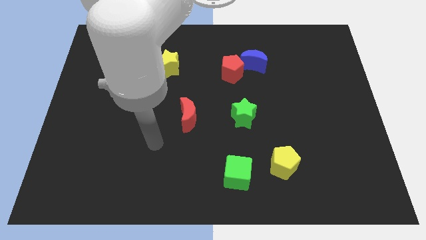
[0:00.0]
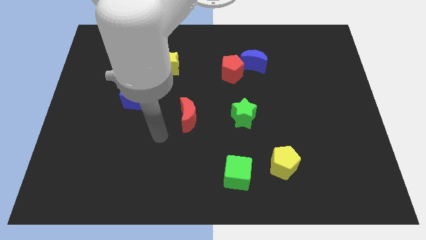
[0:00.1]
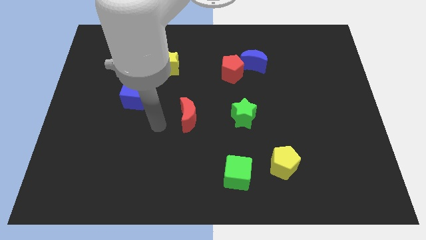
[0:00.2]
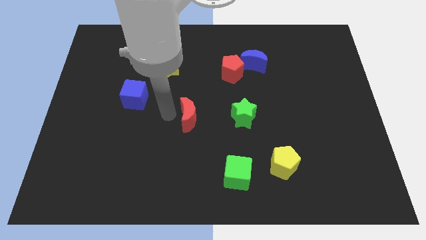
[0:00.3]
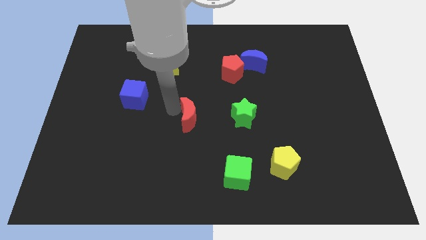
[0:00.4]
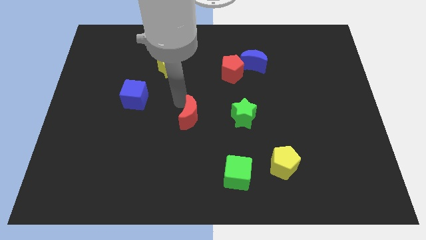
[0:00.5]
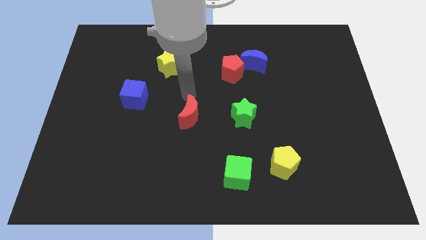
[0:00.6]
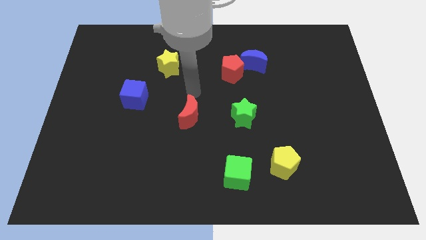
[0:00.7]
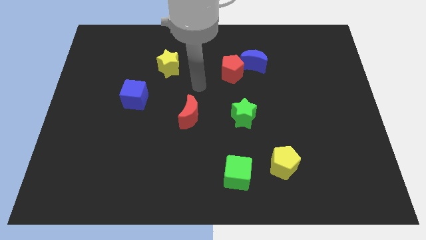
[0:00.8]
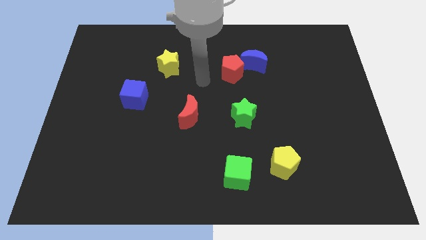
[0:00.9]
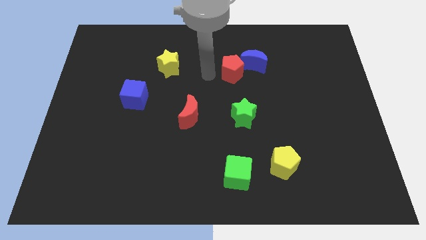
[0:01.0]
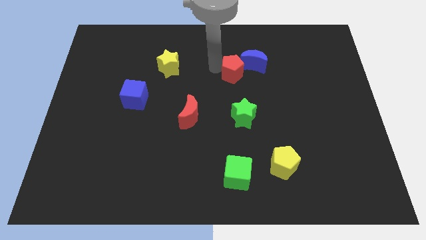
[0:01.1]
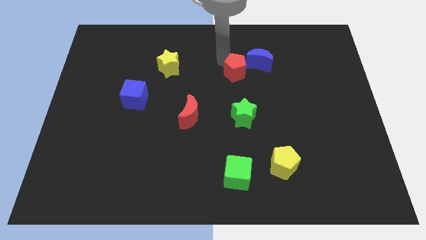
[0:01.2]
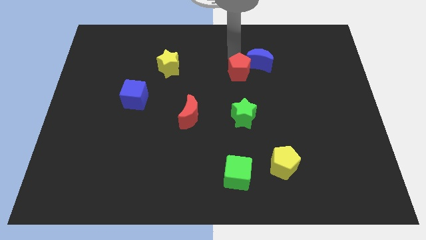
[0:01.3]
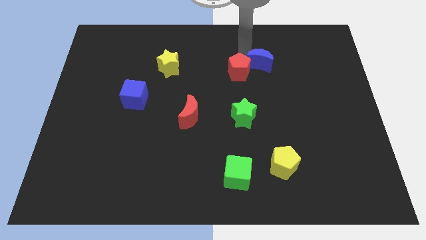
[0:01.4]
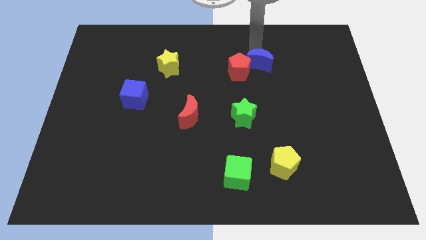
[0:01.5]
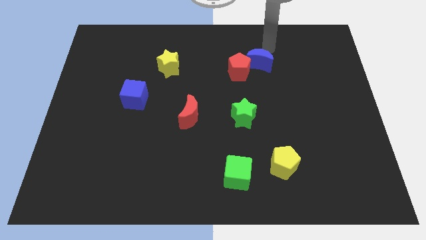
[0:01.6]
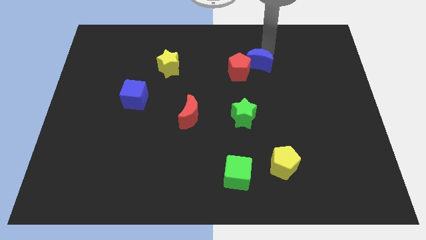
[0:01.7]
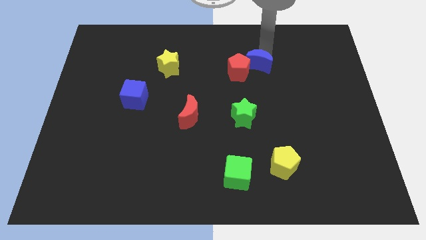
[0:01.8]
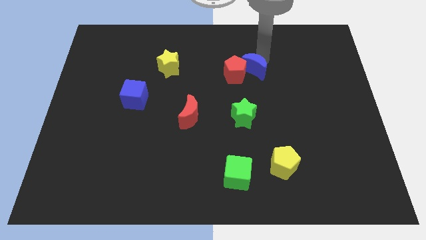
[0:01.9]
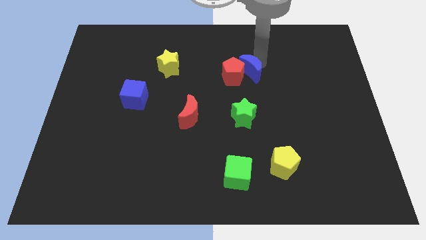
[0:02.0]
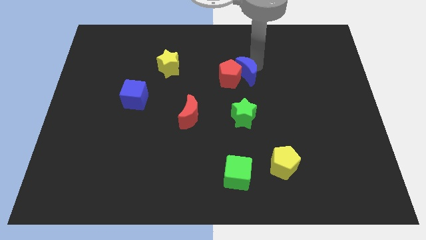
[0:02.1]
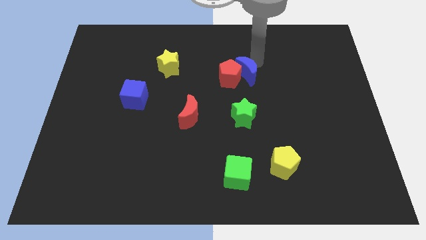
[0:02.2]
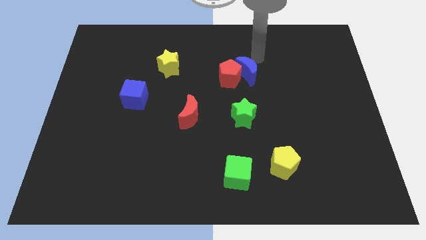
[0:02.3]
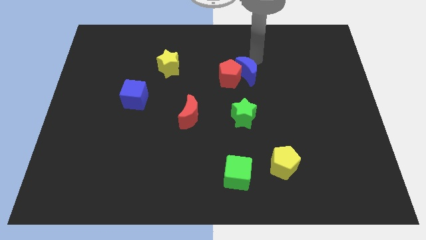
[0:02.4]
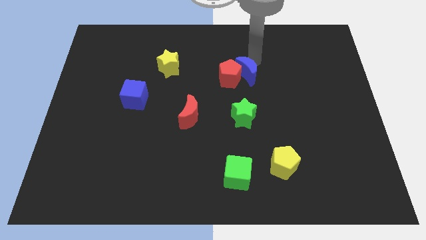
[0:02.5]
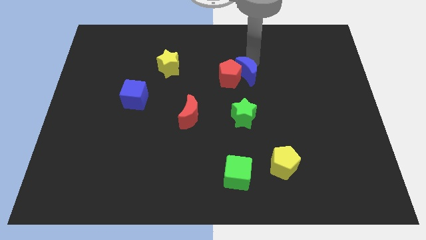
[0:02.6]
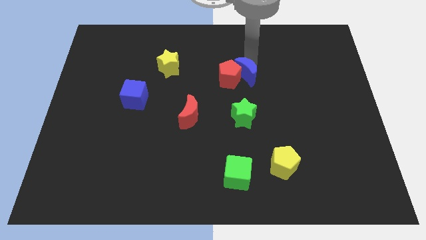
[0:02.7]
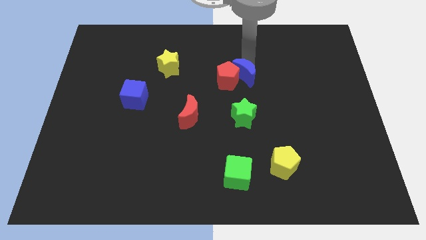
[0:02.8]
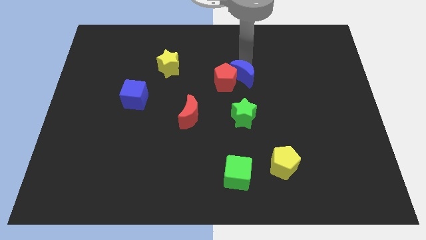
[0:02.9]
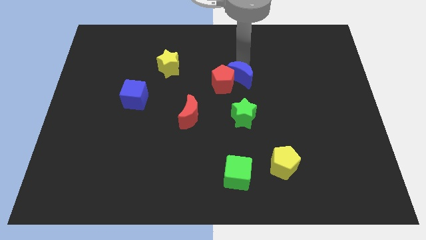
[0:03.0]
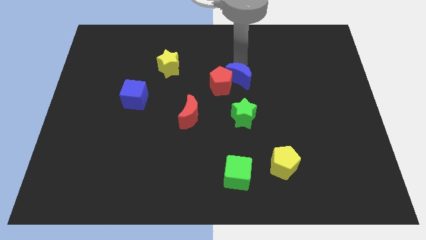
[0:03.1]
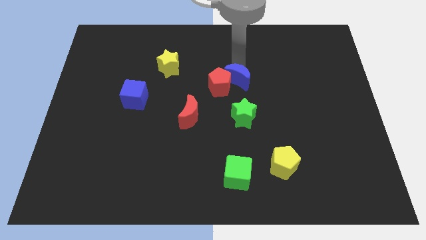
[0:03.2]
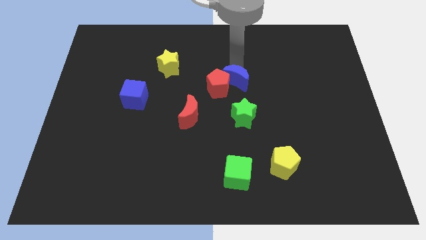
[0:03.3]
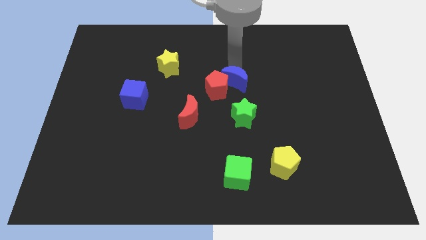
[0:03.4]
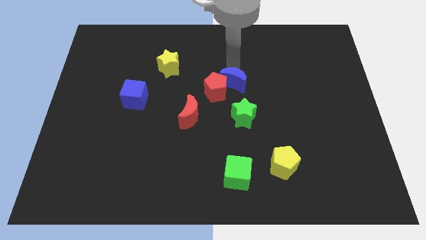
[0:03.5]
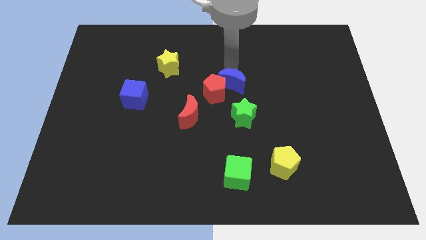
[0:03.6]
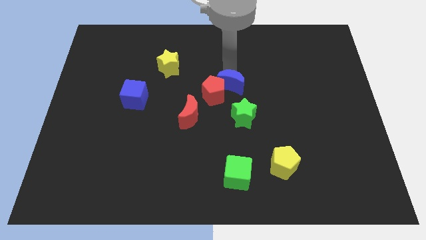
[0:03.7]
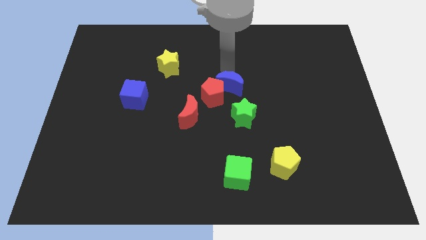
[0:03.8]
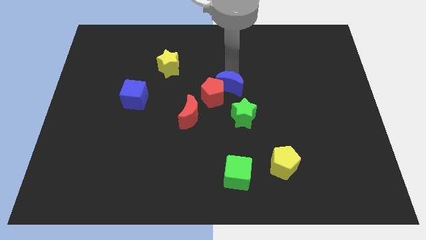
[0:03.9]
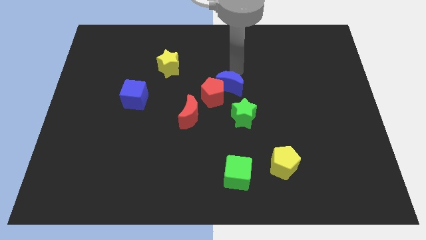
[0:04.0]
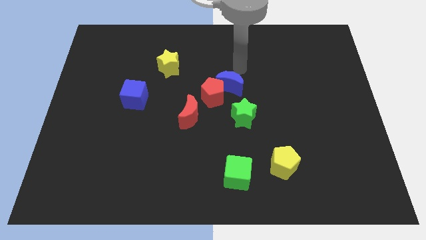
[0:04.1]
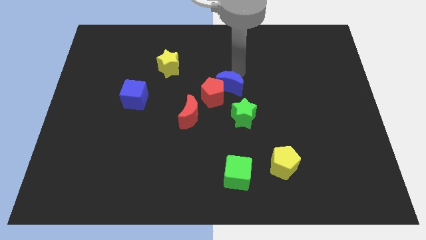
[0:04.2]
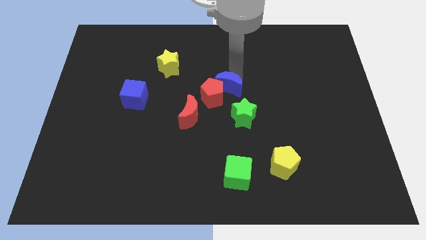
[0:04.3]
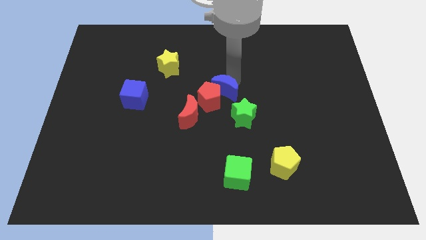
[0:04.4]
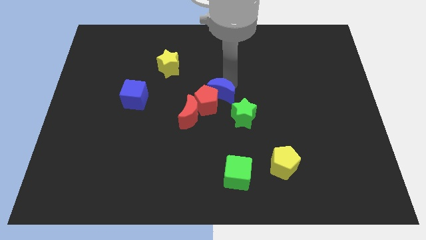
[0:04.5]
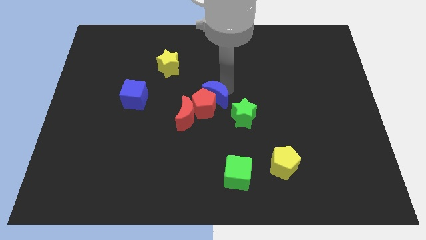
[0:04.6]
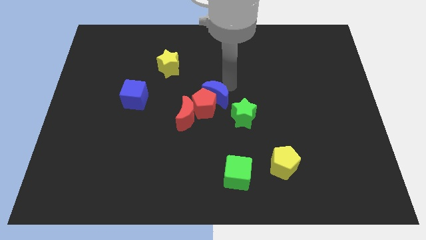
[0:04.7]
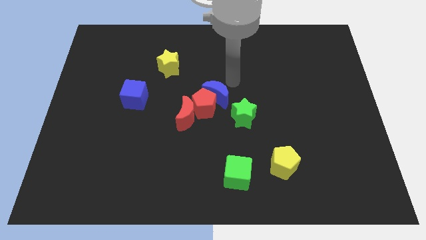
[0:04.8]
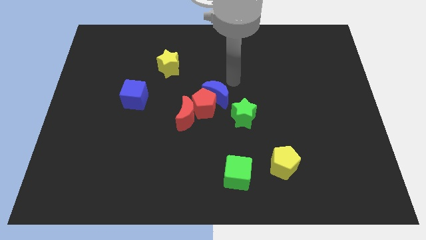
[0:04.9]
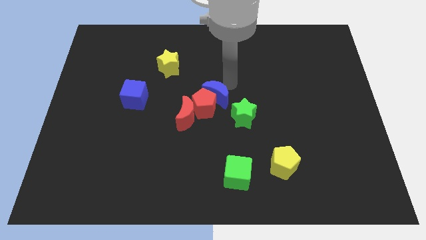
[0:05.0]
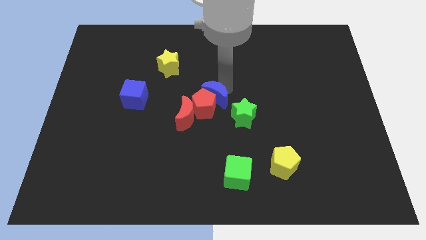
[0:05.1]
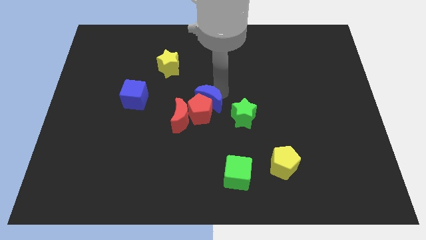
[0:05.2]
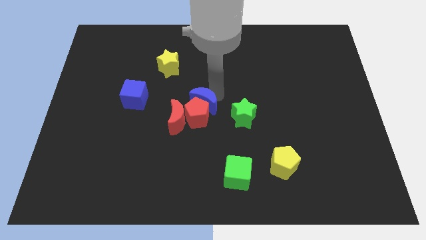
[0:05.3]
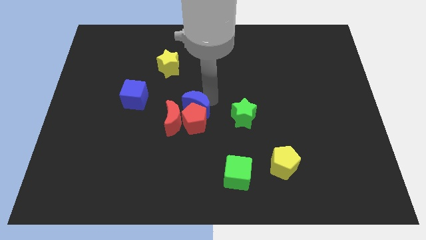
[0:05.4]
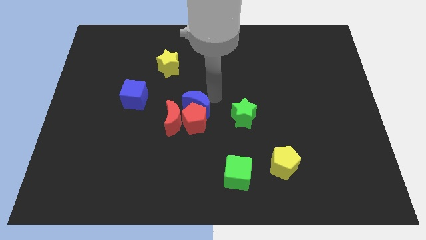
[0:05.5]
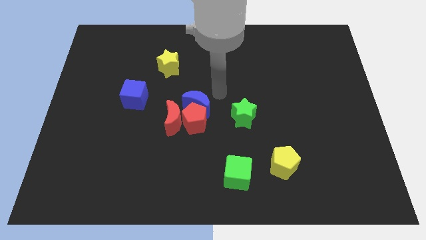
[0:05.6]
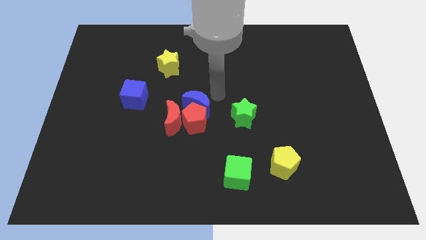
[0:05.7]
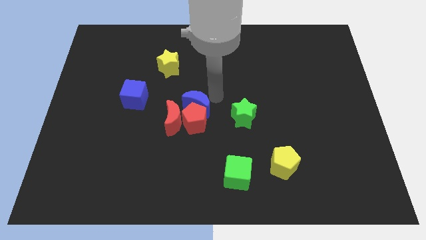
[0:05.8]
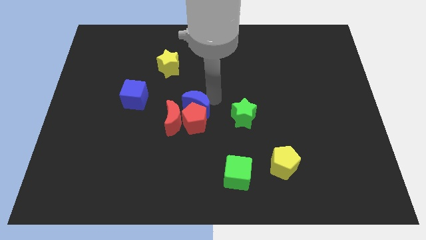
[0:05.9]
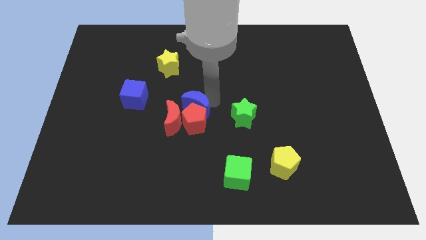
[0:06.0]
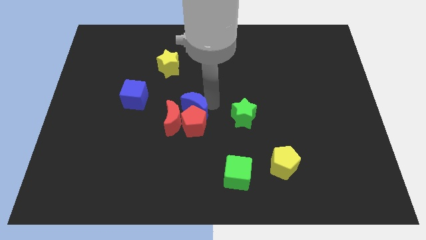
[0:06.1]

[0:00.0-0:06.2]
put the blue moon close to the red moon
